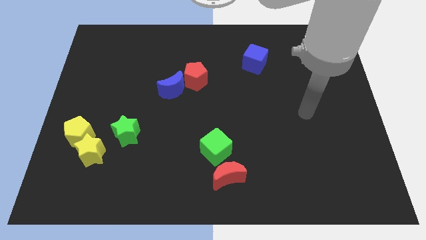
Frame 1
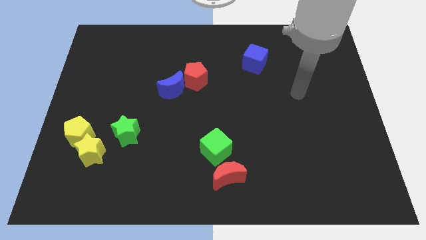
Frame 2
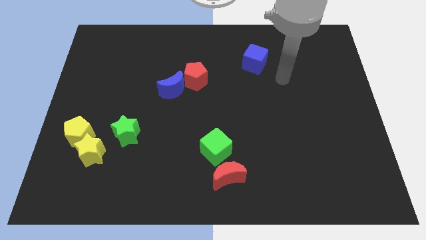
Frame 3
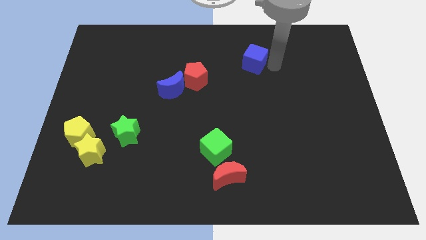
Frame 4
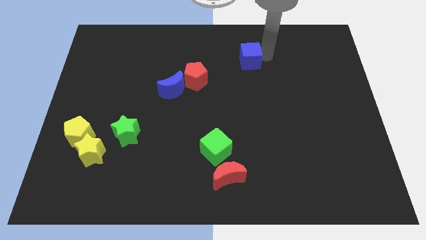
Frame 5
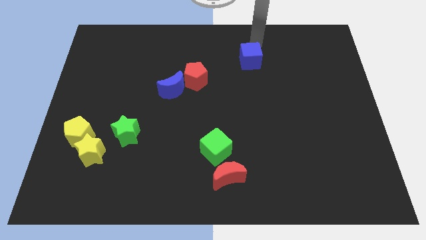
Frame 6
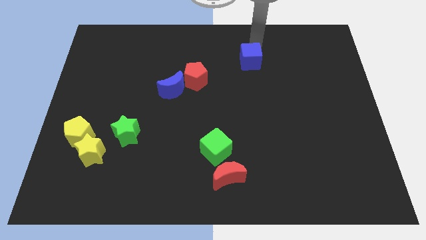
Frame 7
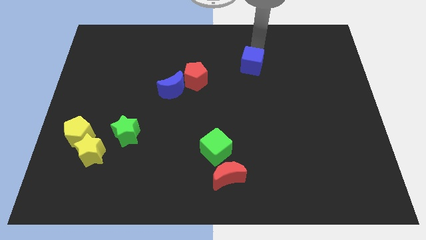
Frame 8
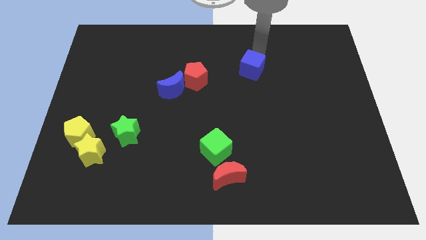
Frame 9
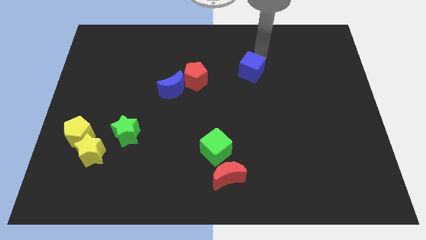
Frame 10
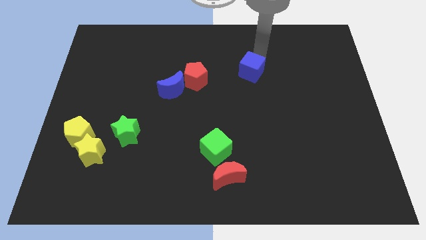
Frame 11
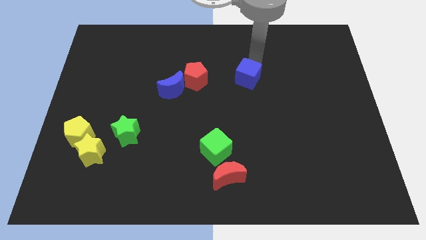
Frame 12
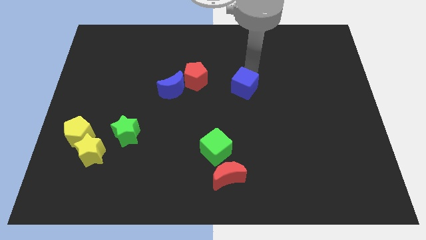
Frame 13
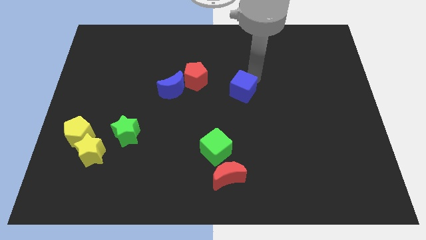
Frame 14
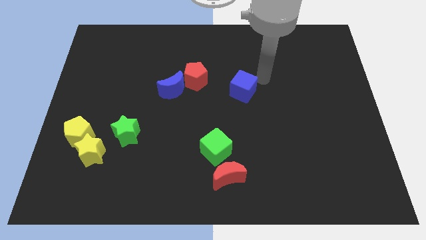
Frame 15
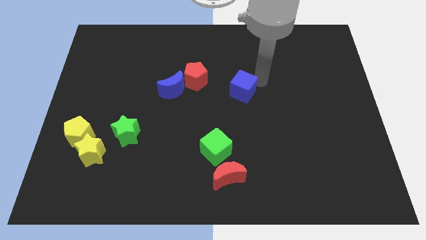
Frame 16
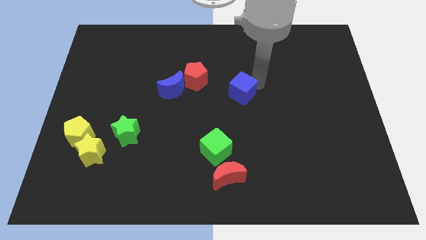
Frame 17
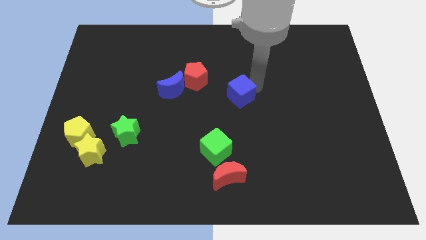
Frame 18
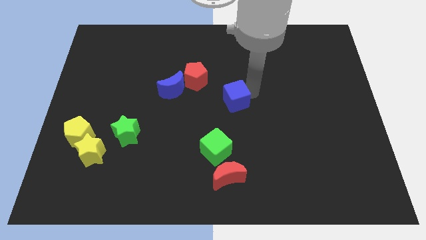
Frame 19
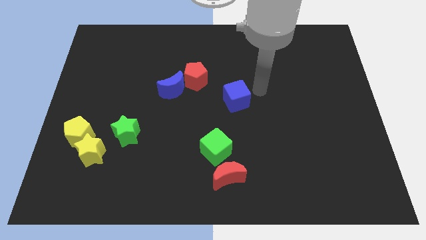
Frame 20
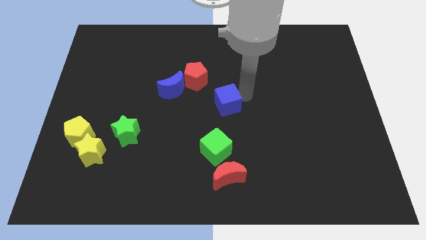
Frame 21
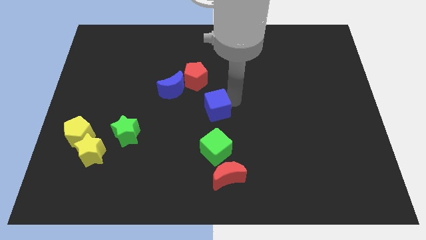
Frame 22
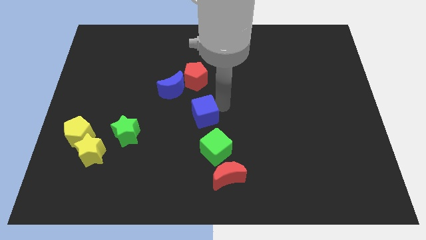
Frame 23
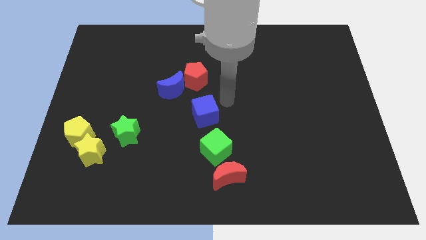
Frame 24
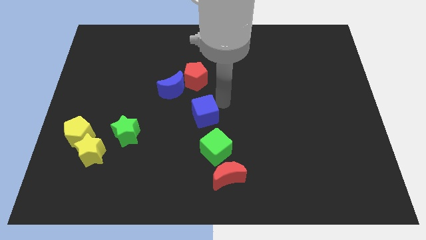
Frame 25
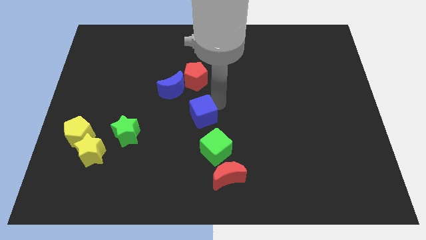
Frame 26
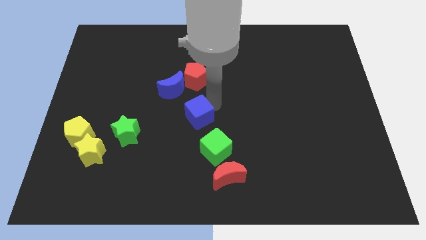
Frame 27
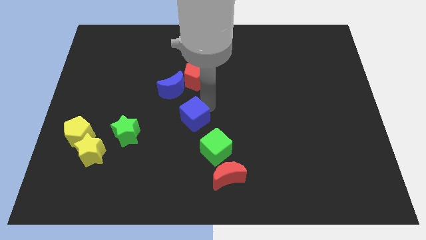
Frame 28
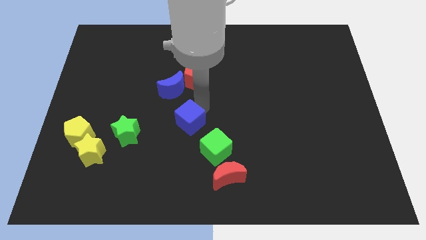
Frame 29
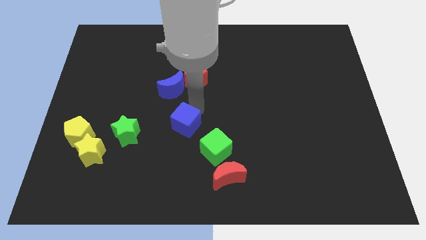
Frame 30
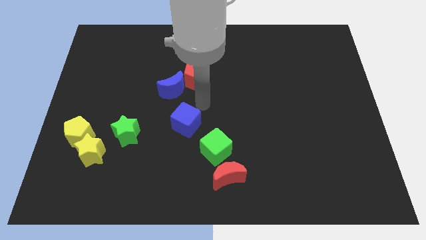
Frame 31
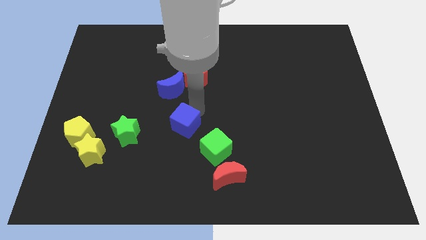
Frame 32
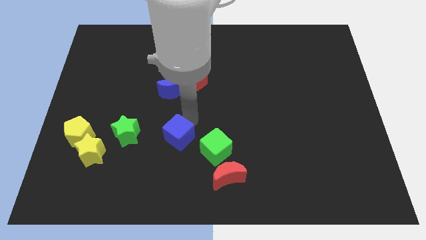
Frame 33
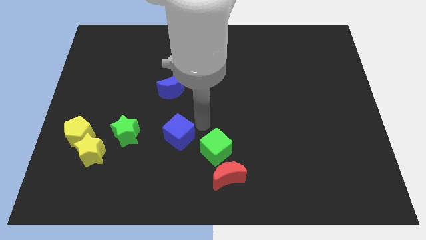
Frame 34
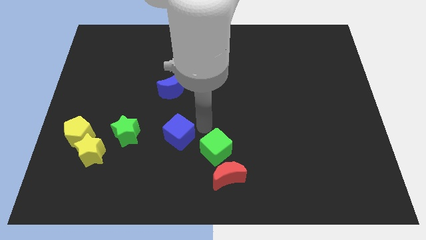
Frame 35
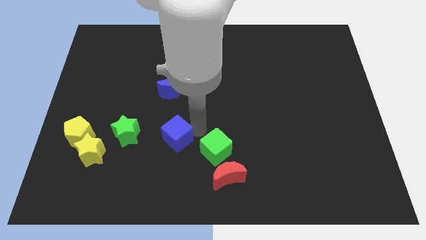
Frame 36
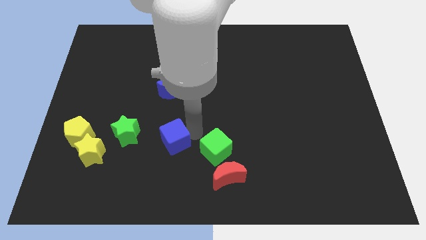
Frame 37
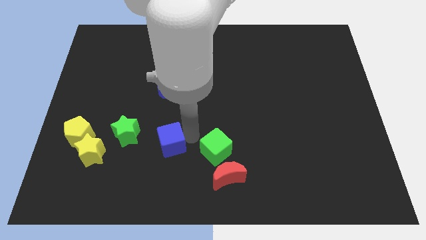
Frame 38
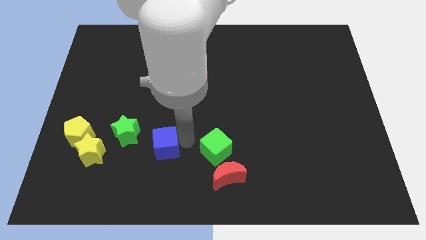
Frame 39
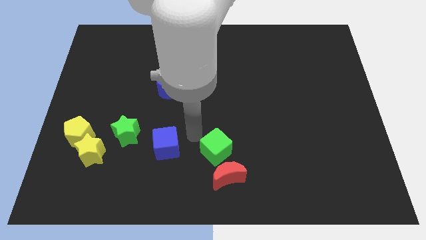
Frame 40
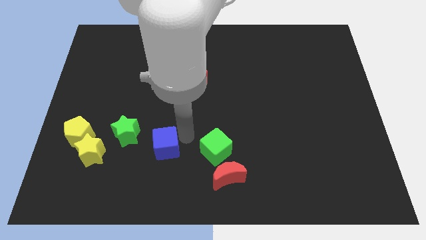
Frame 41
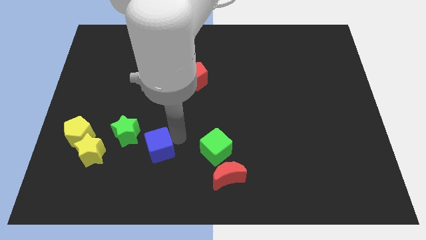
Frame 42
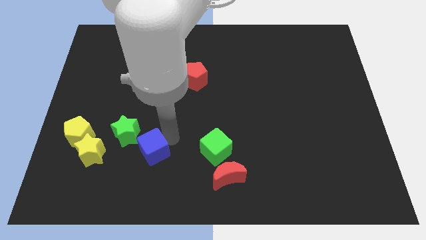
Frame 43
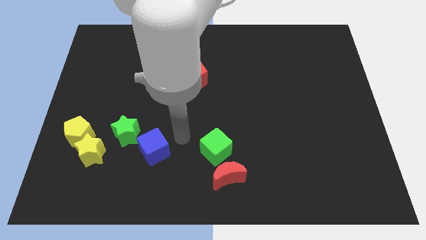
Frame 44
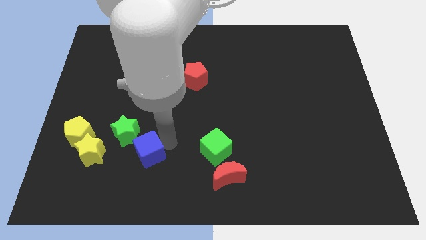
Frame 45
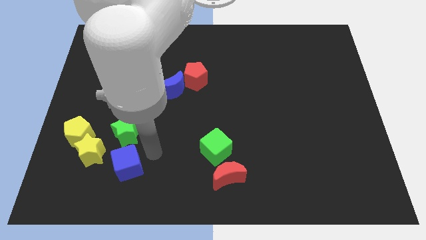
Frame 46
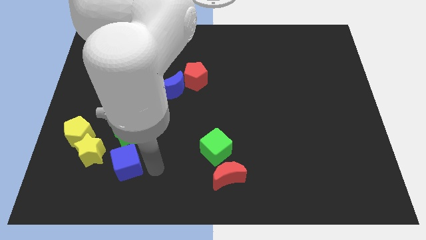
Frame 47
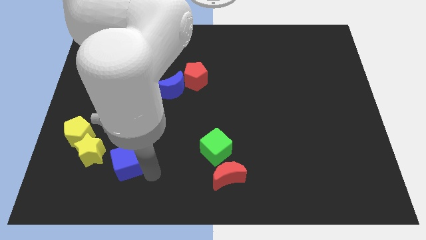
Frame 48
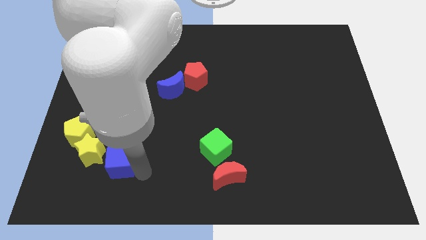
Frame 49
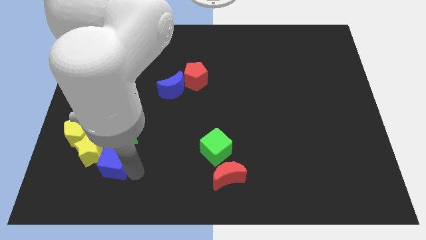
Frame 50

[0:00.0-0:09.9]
move the blue cube towards the yellow star

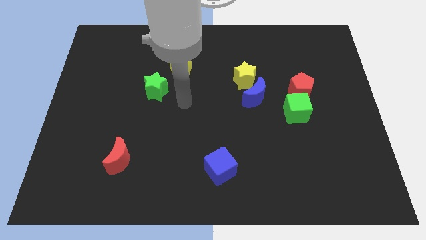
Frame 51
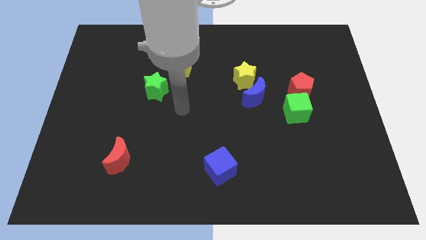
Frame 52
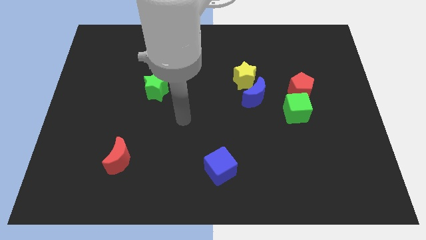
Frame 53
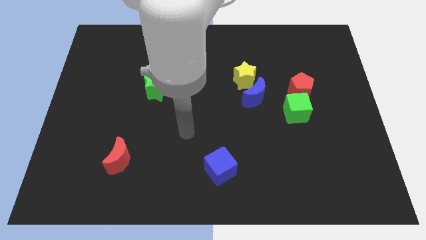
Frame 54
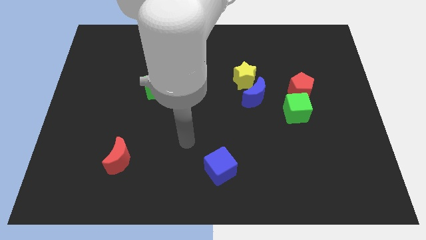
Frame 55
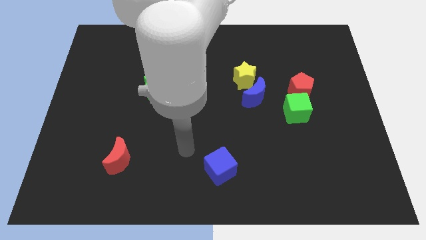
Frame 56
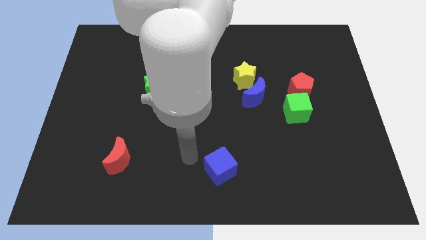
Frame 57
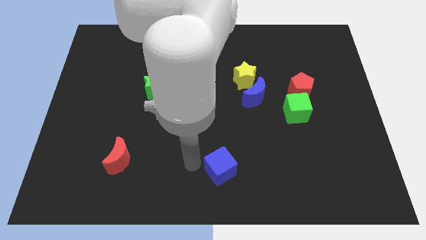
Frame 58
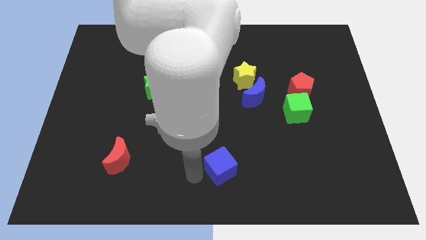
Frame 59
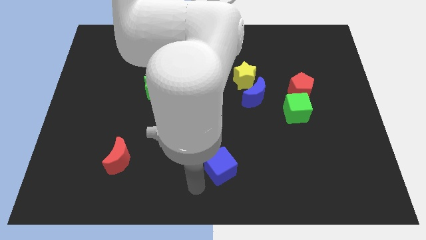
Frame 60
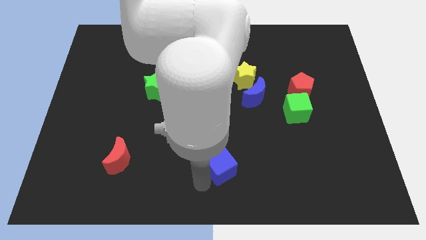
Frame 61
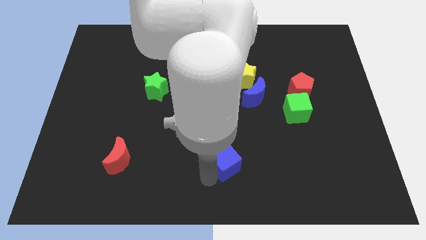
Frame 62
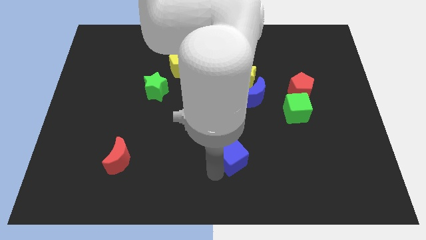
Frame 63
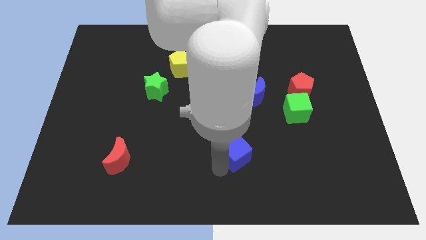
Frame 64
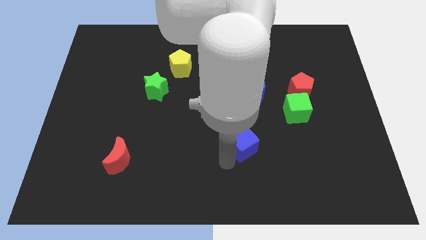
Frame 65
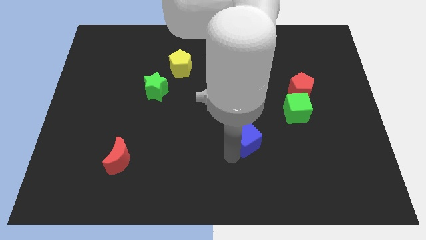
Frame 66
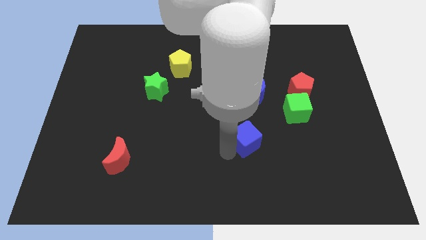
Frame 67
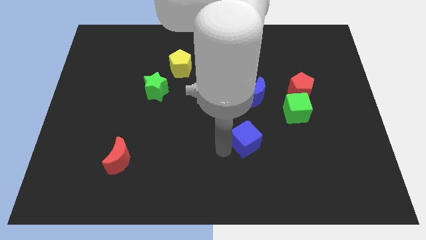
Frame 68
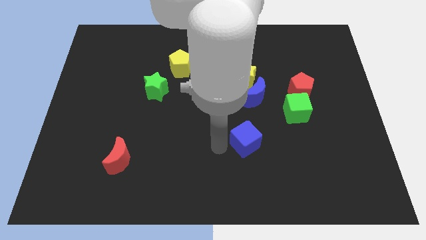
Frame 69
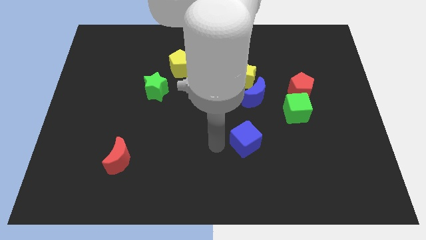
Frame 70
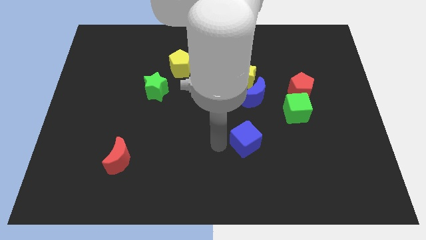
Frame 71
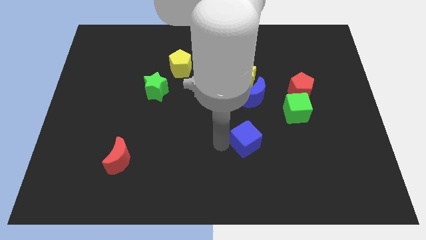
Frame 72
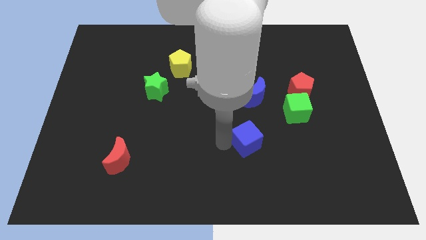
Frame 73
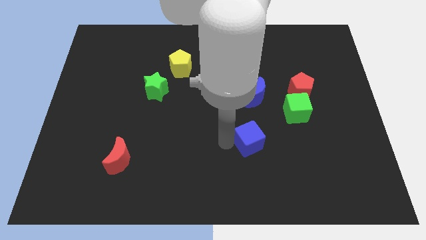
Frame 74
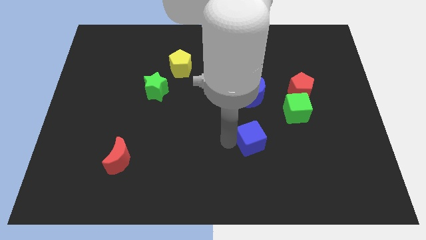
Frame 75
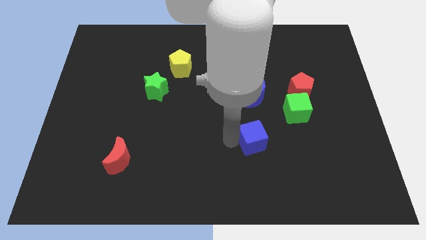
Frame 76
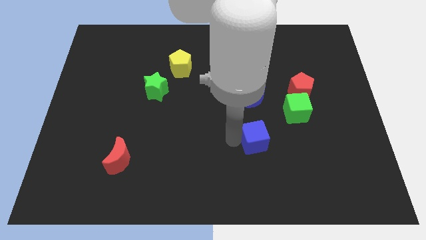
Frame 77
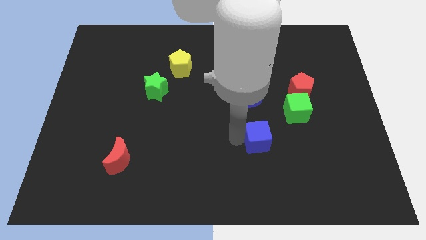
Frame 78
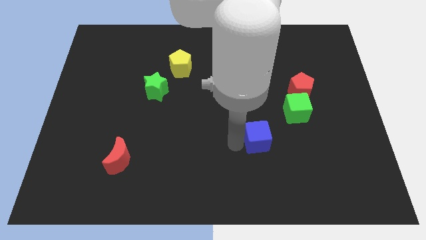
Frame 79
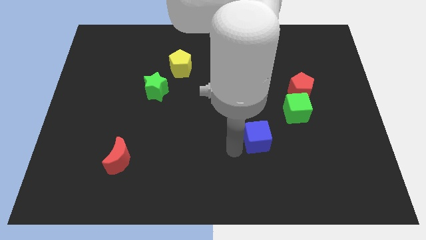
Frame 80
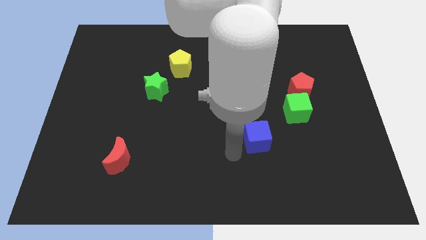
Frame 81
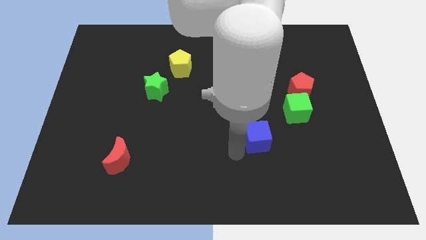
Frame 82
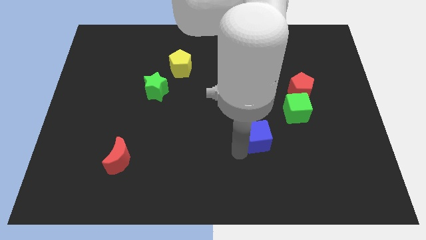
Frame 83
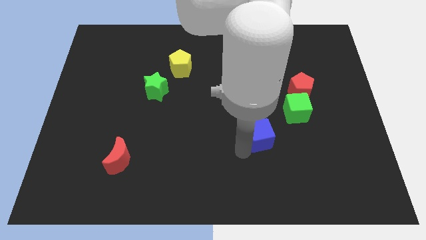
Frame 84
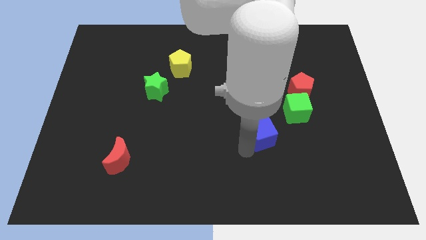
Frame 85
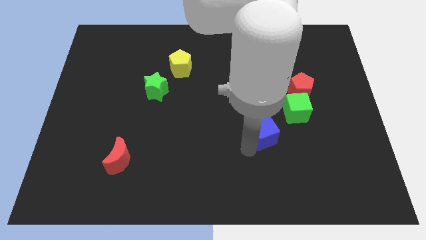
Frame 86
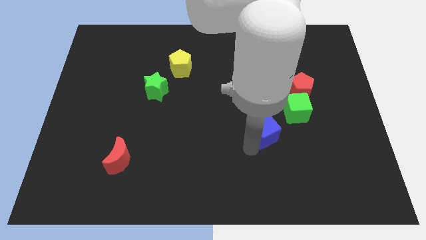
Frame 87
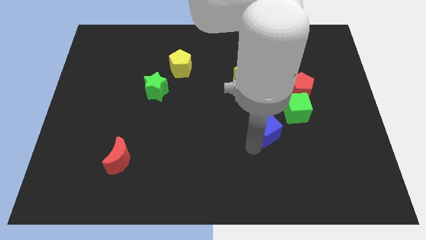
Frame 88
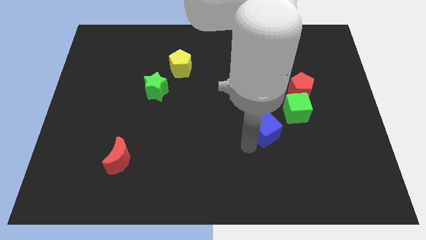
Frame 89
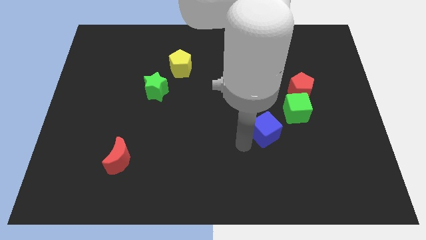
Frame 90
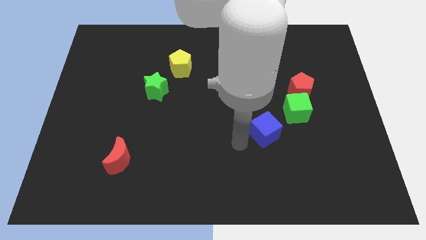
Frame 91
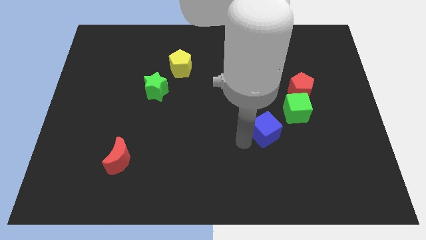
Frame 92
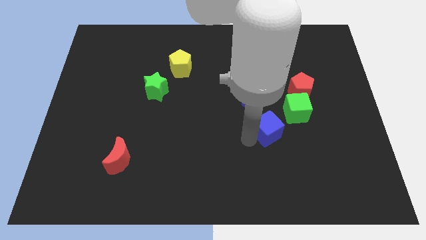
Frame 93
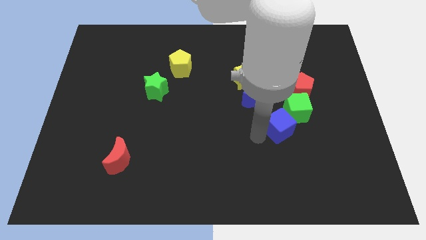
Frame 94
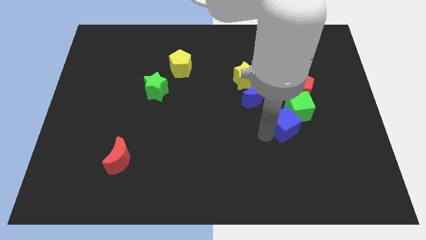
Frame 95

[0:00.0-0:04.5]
slide the blue cube towards the green cube
